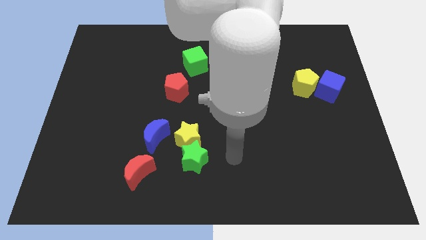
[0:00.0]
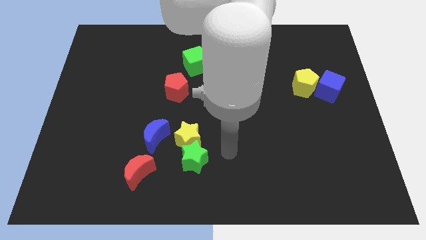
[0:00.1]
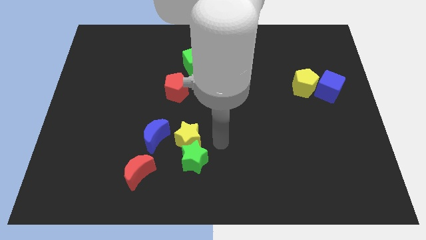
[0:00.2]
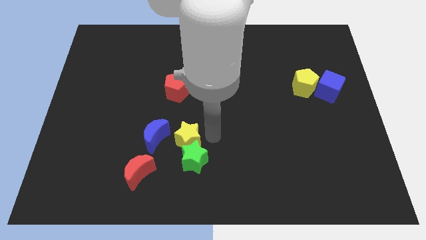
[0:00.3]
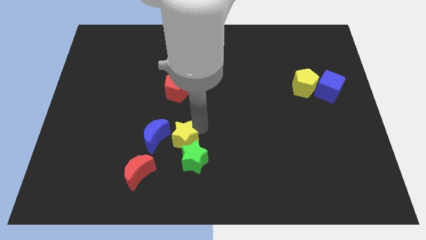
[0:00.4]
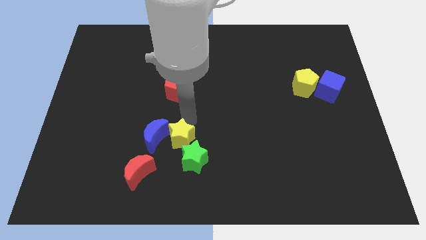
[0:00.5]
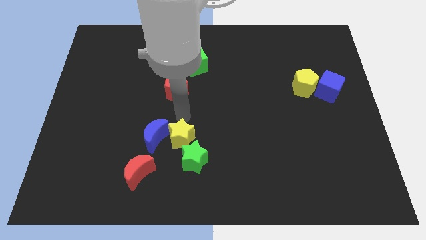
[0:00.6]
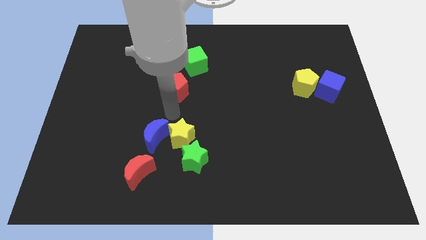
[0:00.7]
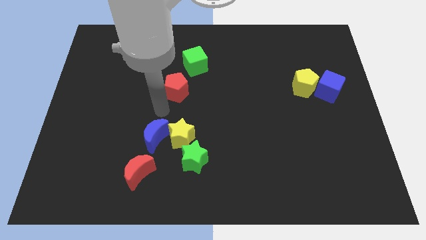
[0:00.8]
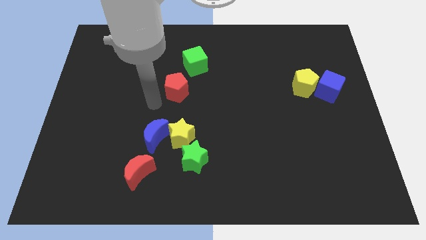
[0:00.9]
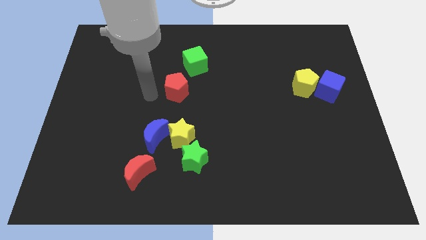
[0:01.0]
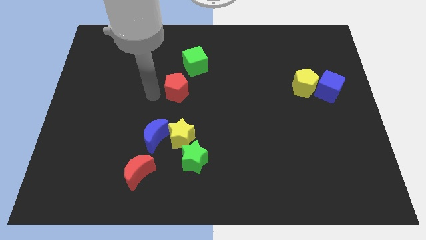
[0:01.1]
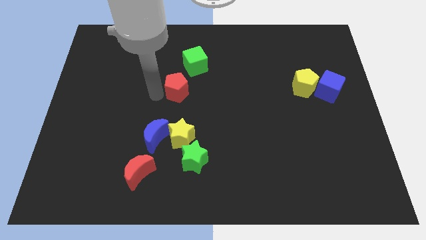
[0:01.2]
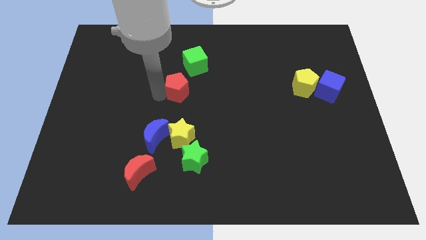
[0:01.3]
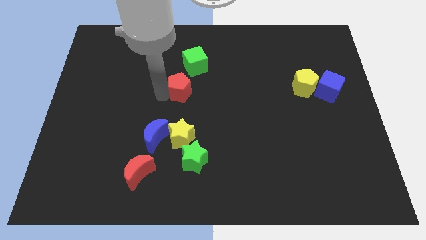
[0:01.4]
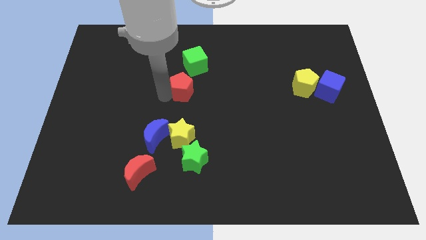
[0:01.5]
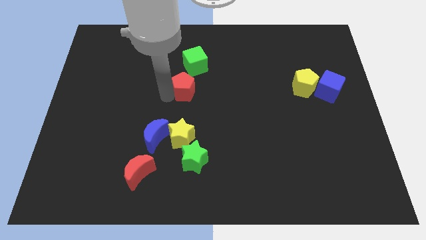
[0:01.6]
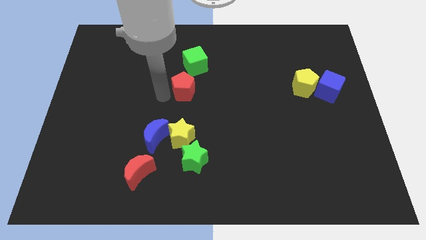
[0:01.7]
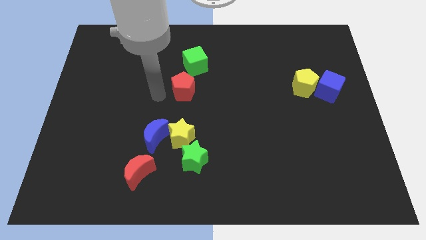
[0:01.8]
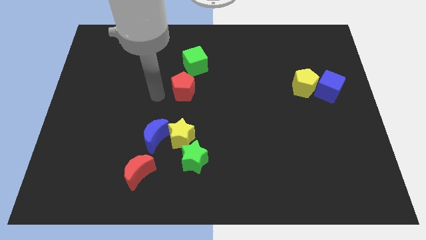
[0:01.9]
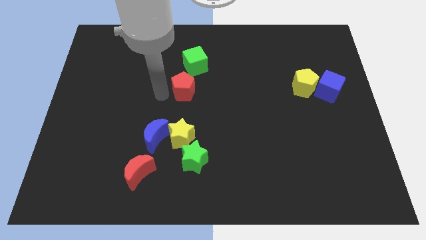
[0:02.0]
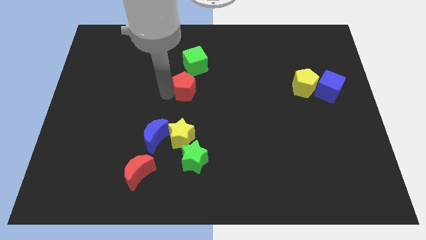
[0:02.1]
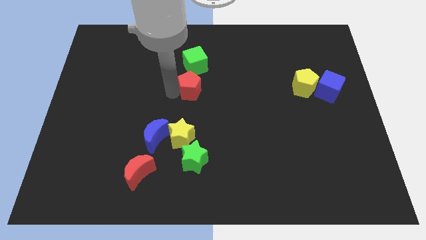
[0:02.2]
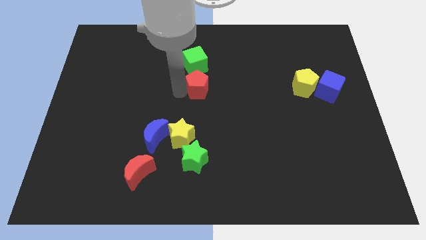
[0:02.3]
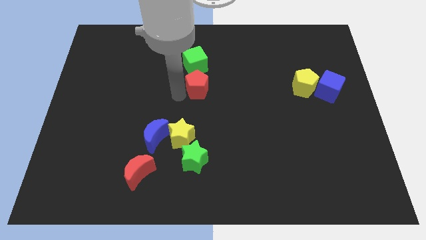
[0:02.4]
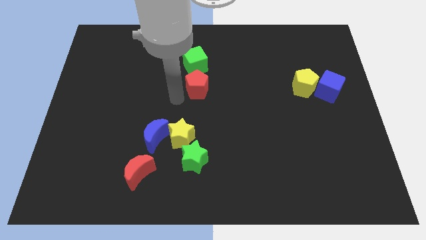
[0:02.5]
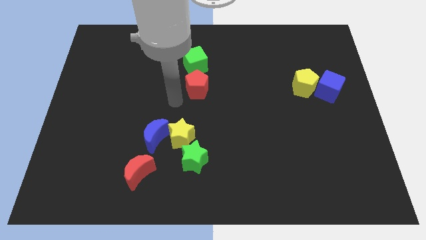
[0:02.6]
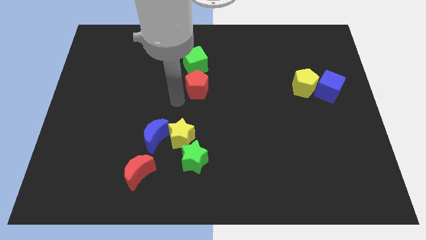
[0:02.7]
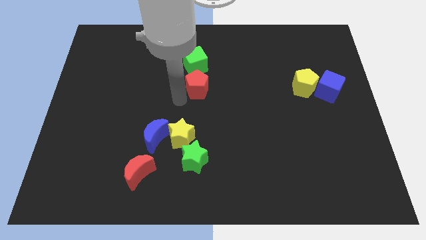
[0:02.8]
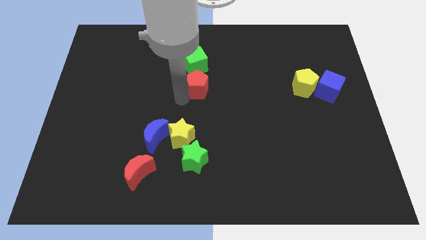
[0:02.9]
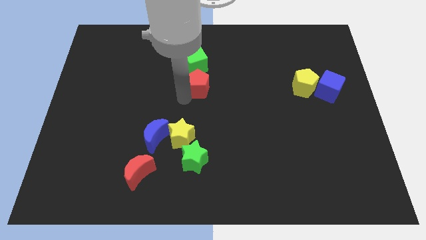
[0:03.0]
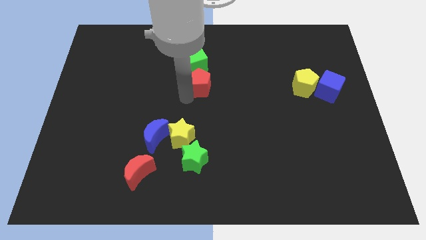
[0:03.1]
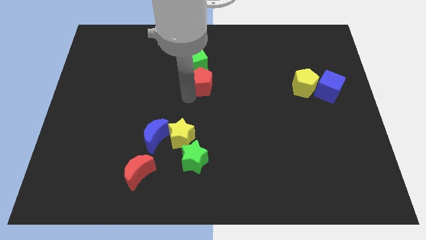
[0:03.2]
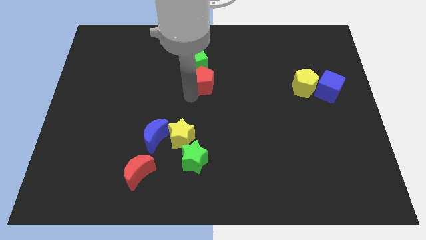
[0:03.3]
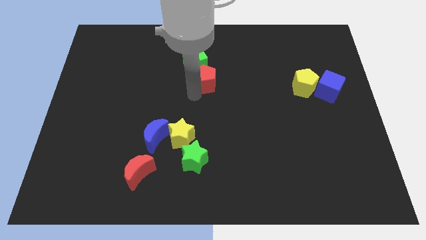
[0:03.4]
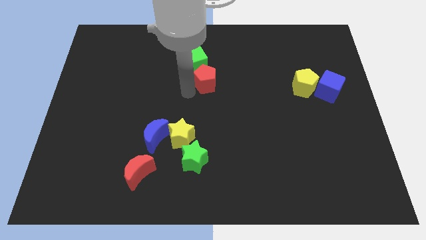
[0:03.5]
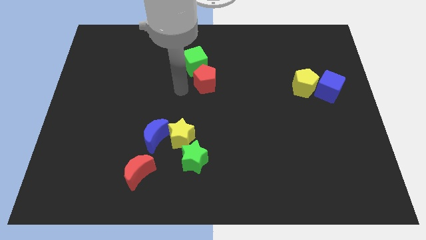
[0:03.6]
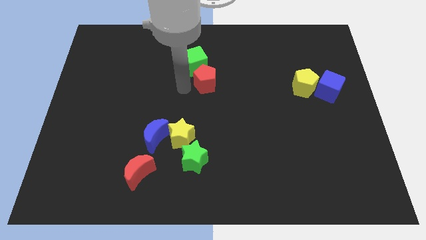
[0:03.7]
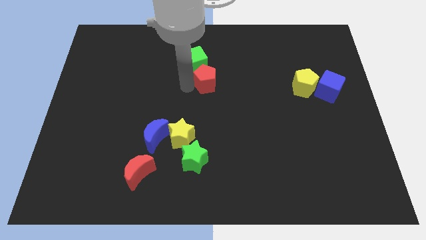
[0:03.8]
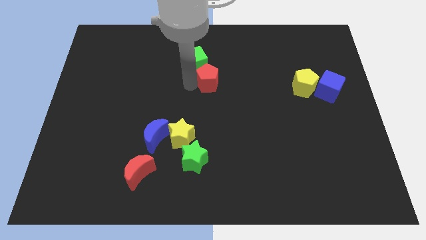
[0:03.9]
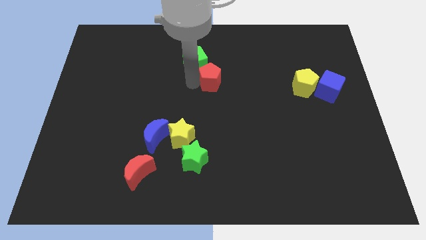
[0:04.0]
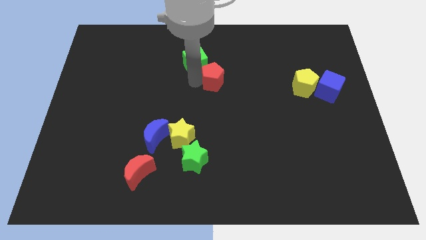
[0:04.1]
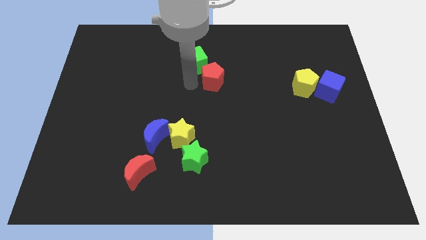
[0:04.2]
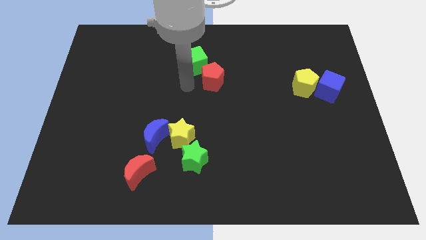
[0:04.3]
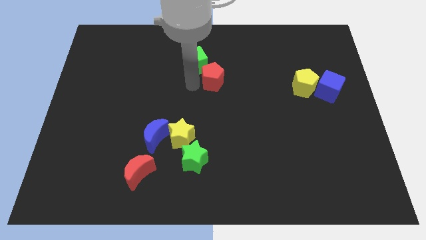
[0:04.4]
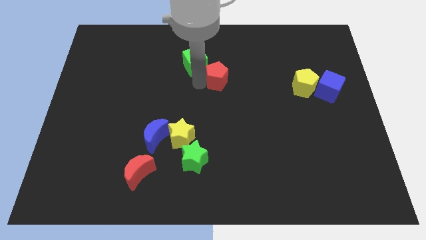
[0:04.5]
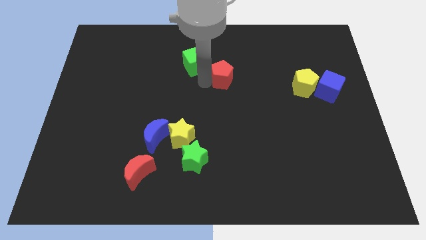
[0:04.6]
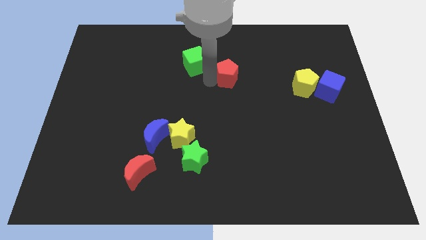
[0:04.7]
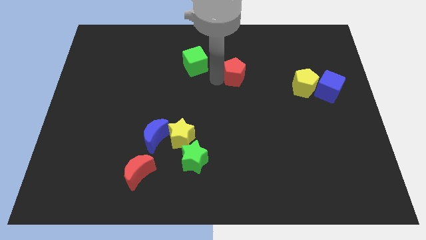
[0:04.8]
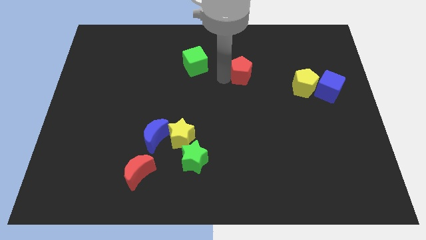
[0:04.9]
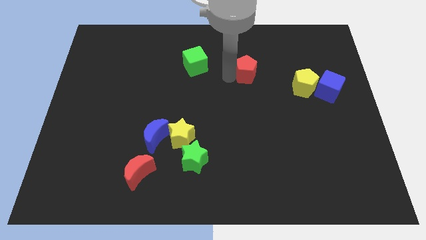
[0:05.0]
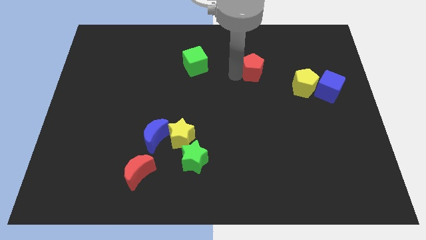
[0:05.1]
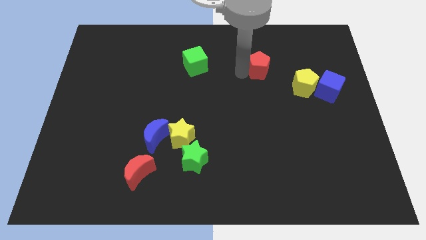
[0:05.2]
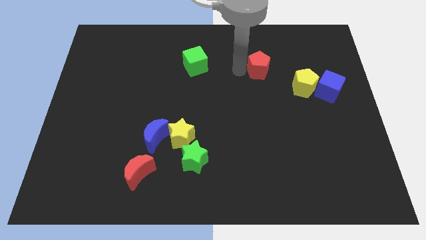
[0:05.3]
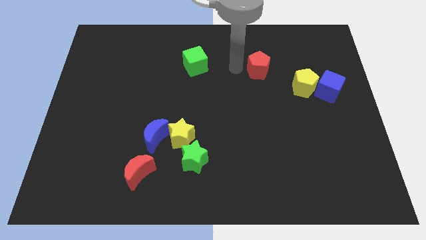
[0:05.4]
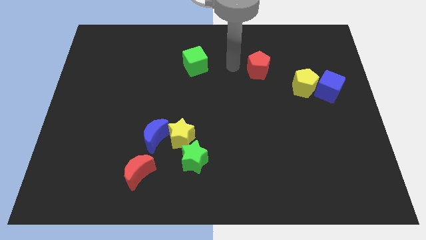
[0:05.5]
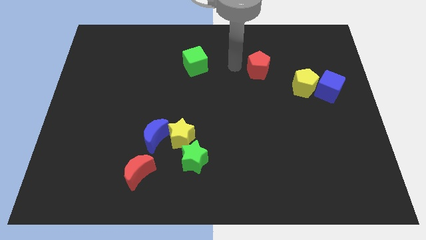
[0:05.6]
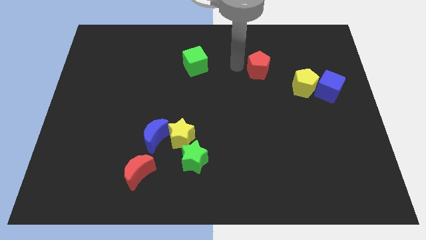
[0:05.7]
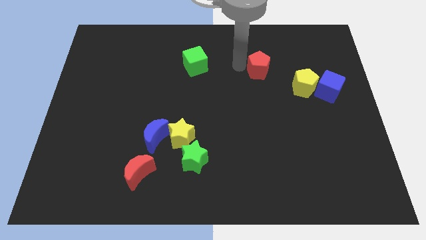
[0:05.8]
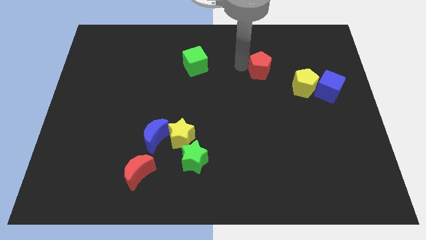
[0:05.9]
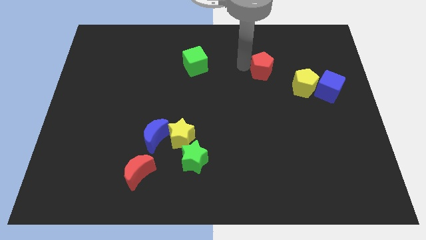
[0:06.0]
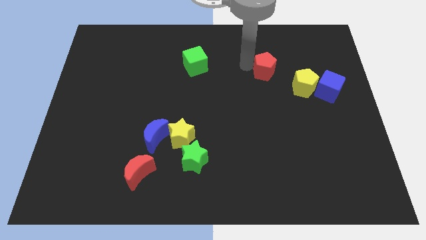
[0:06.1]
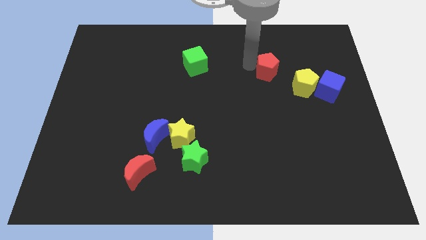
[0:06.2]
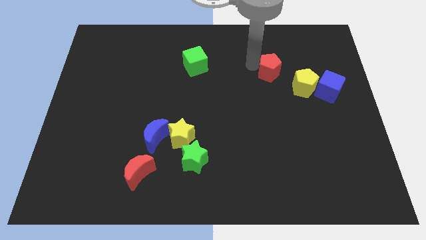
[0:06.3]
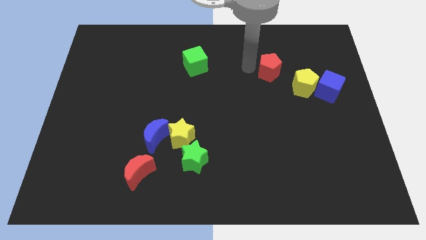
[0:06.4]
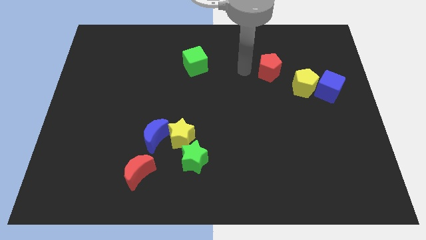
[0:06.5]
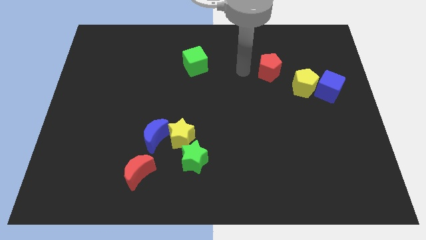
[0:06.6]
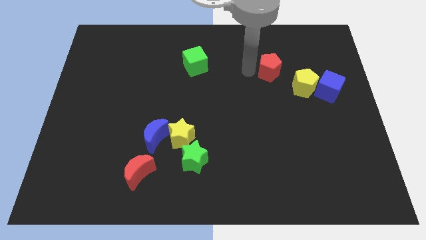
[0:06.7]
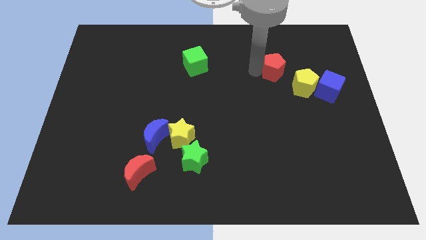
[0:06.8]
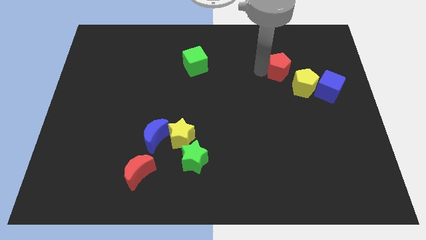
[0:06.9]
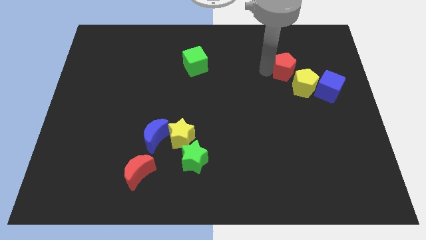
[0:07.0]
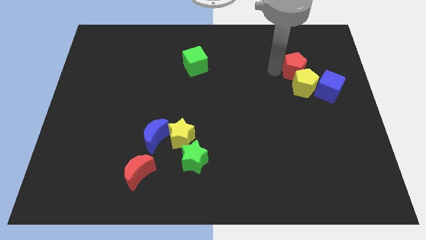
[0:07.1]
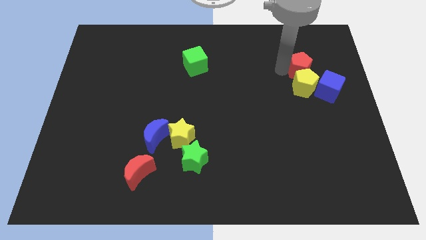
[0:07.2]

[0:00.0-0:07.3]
slide the red pentagon diagonally up and to the right of the yellow pentagon
